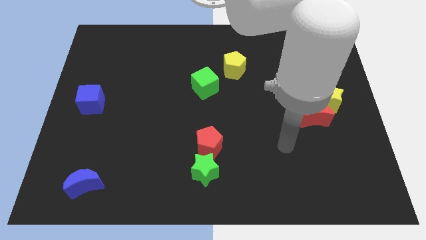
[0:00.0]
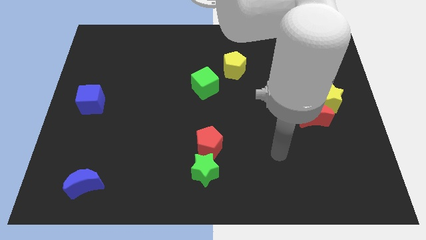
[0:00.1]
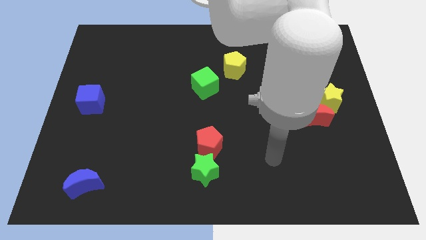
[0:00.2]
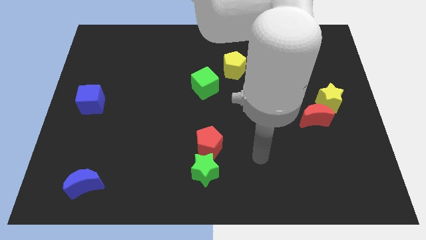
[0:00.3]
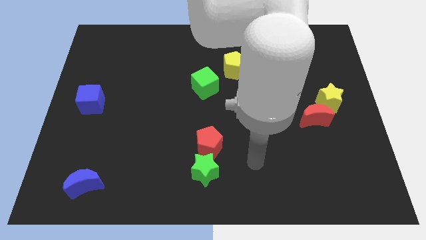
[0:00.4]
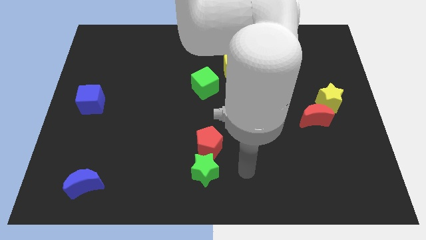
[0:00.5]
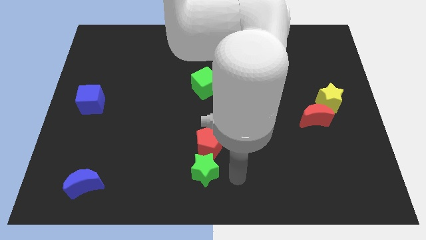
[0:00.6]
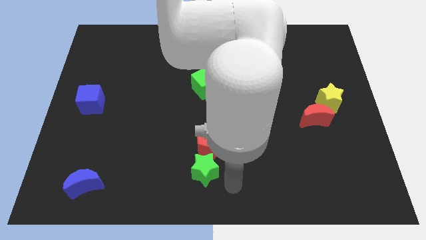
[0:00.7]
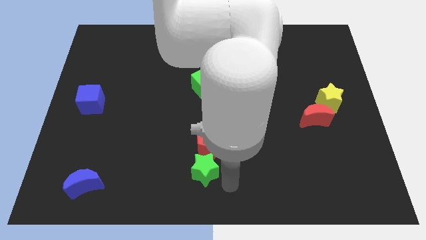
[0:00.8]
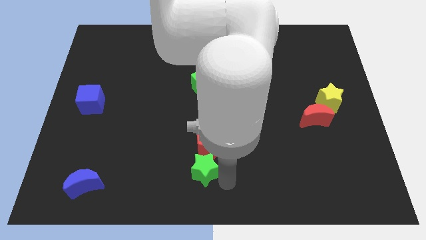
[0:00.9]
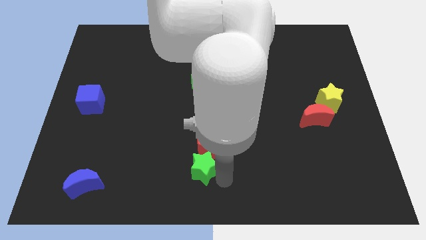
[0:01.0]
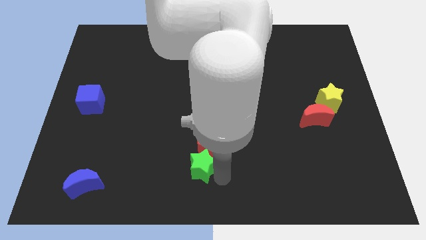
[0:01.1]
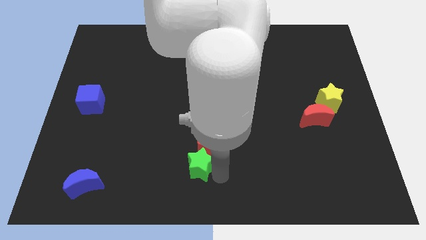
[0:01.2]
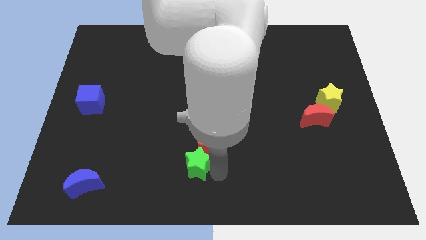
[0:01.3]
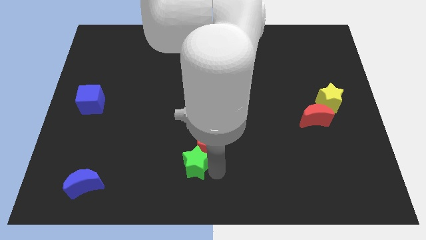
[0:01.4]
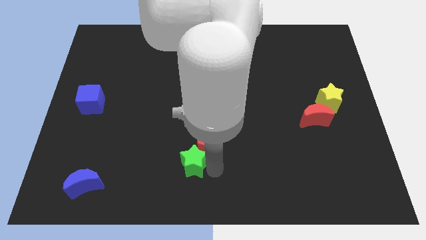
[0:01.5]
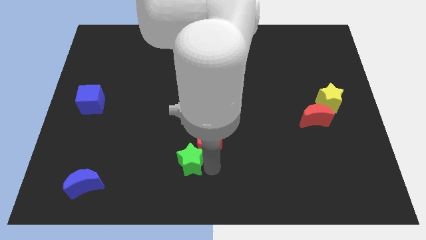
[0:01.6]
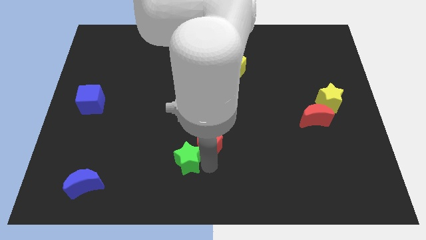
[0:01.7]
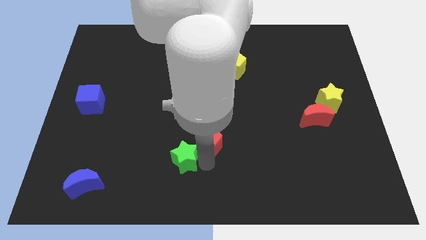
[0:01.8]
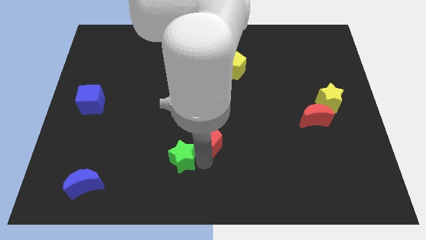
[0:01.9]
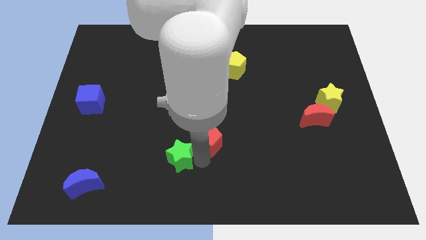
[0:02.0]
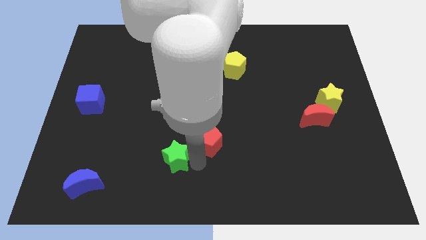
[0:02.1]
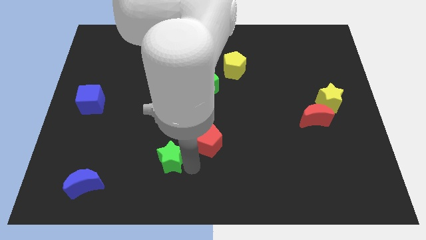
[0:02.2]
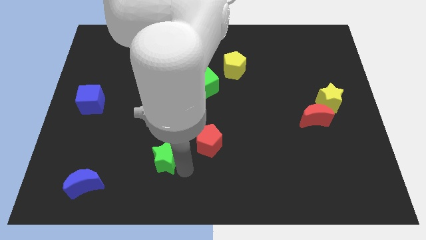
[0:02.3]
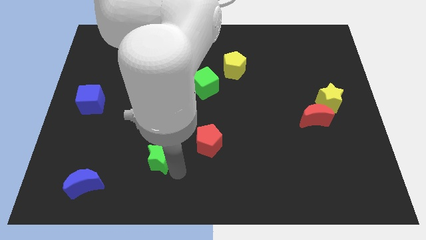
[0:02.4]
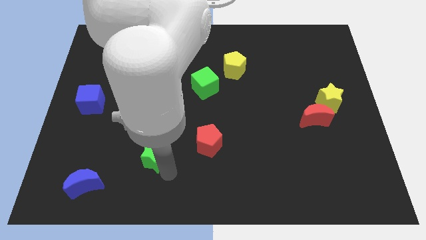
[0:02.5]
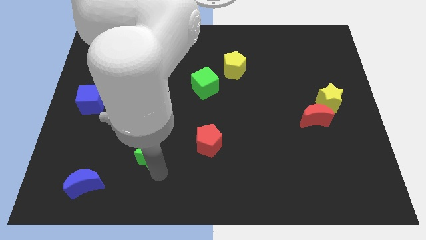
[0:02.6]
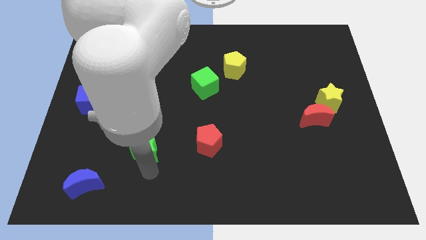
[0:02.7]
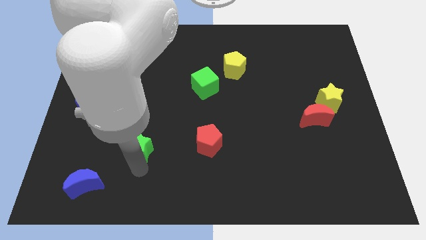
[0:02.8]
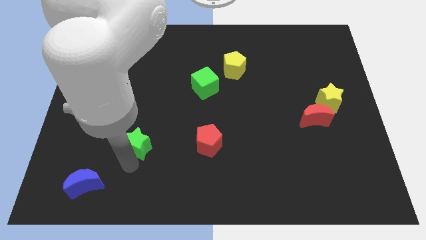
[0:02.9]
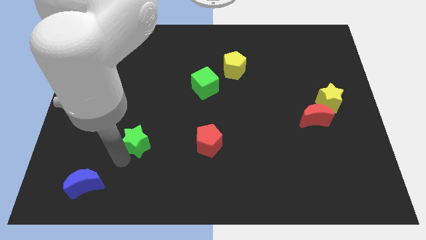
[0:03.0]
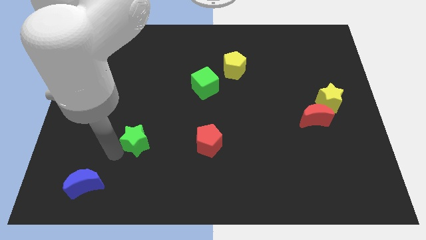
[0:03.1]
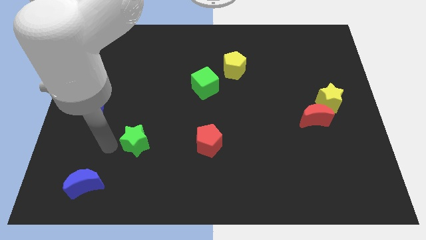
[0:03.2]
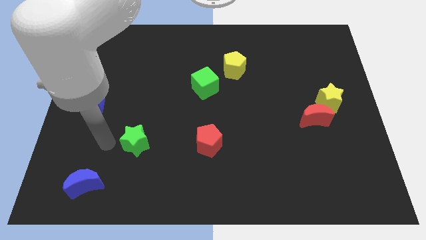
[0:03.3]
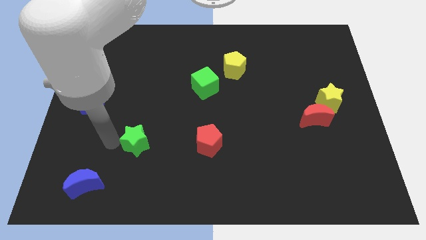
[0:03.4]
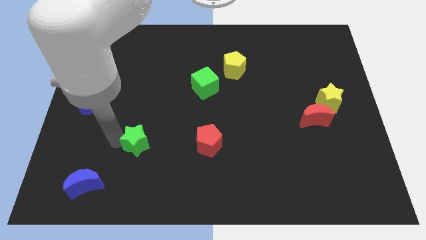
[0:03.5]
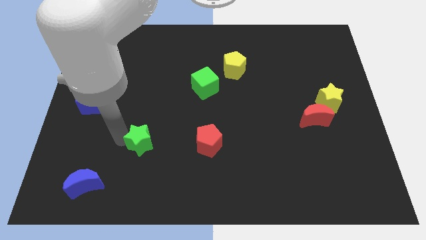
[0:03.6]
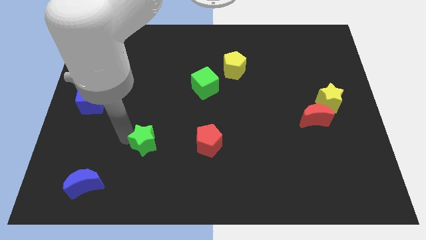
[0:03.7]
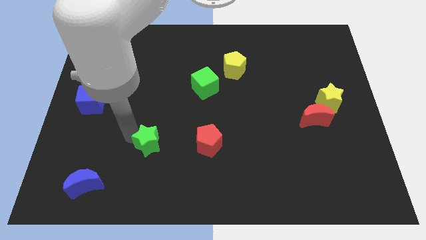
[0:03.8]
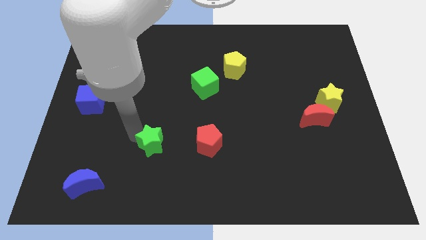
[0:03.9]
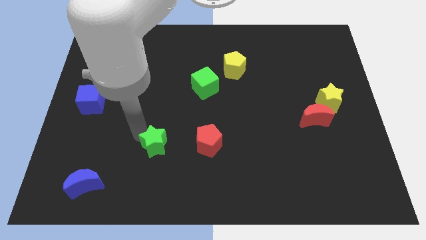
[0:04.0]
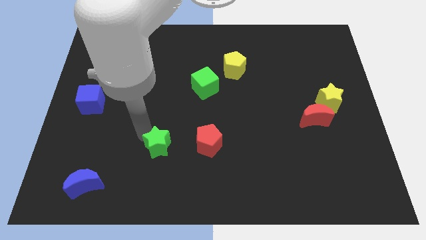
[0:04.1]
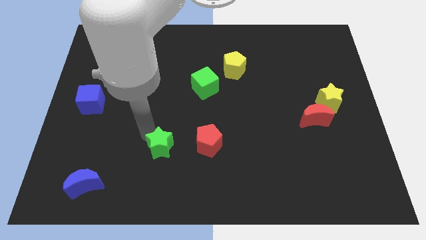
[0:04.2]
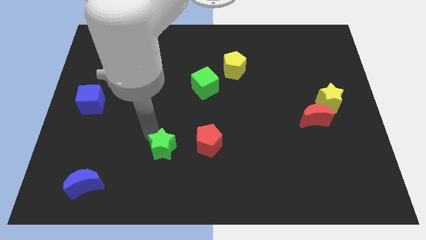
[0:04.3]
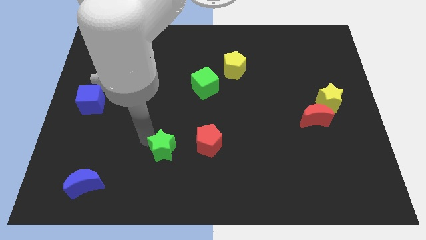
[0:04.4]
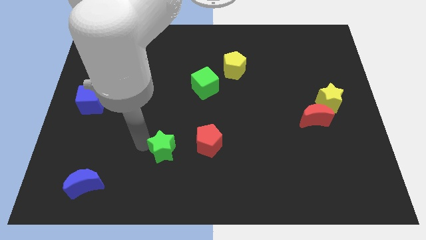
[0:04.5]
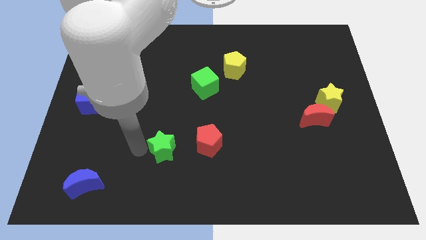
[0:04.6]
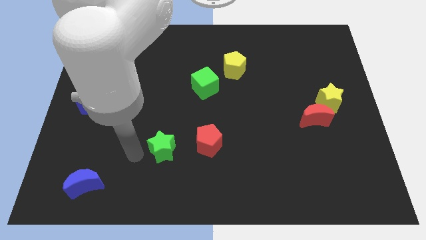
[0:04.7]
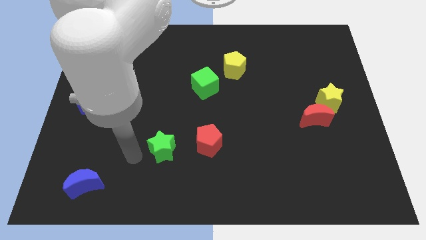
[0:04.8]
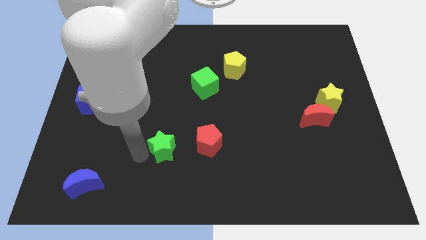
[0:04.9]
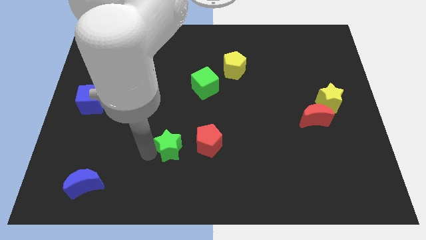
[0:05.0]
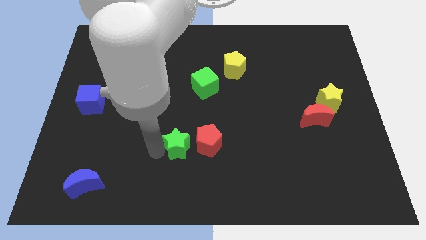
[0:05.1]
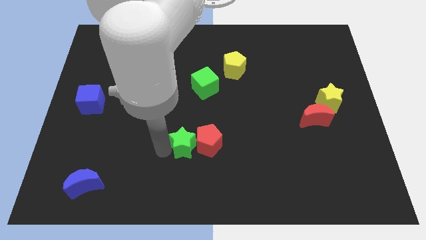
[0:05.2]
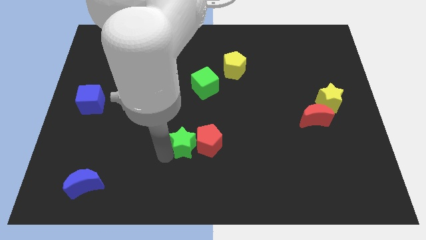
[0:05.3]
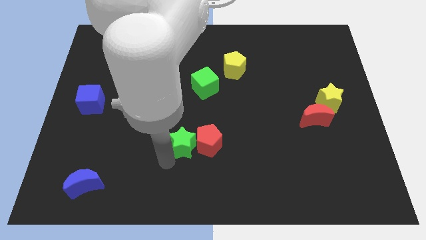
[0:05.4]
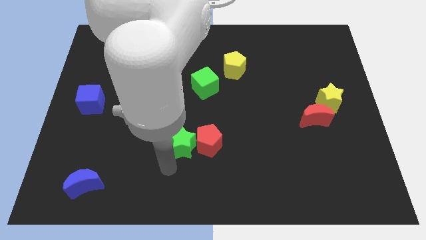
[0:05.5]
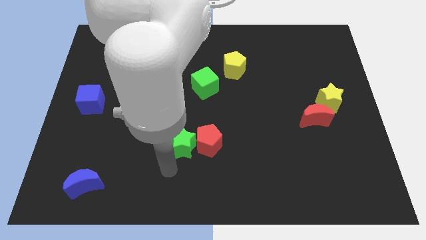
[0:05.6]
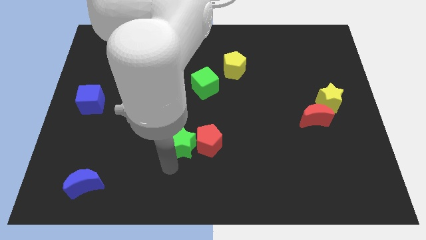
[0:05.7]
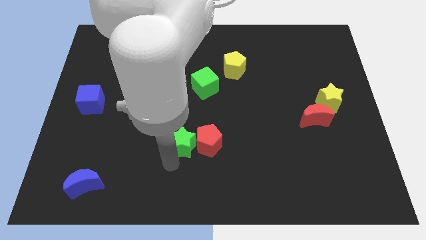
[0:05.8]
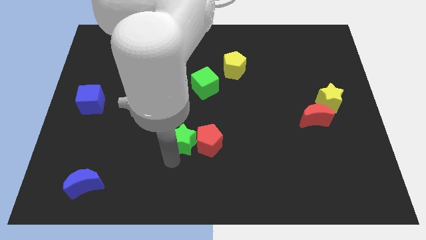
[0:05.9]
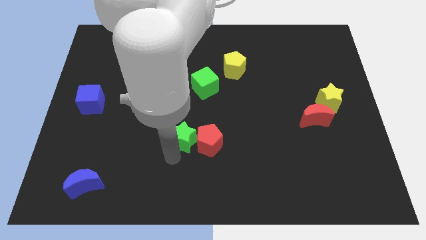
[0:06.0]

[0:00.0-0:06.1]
push the green star upwards somewhat

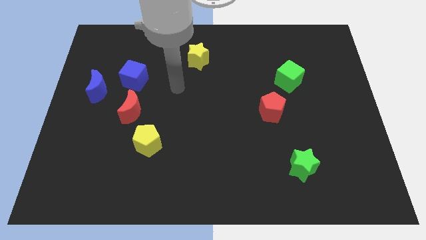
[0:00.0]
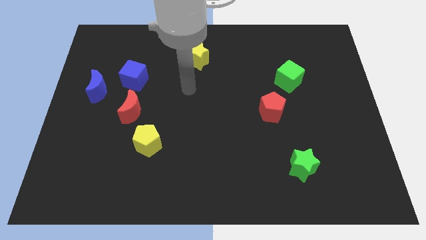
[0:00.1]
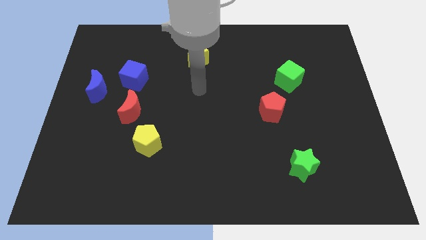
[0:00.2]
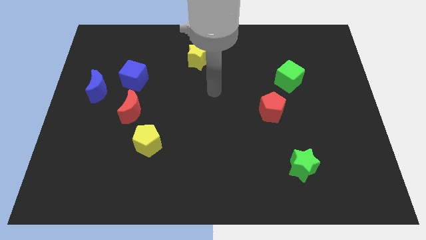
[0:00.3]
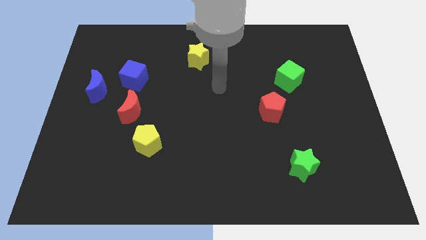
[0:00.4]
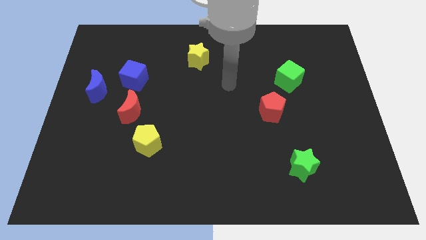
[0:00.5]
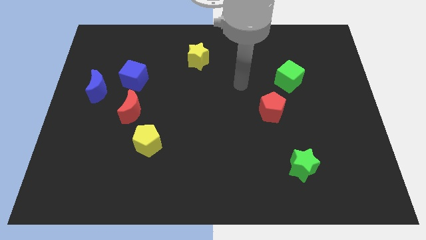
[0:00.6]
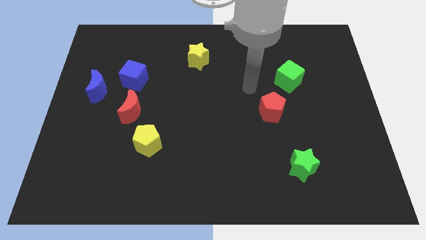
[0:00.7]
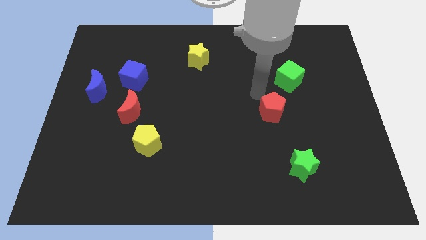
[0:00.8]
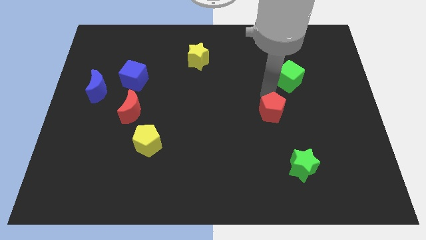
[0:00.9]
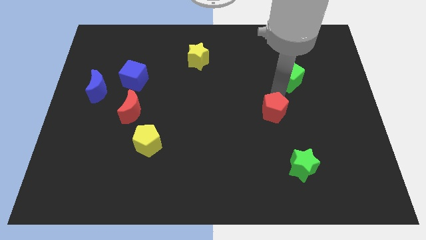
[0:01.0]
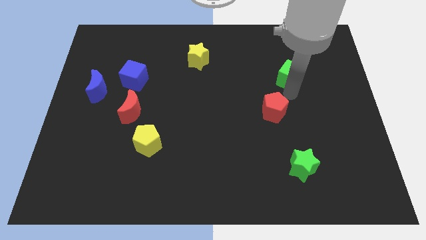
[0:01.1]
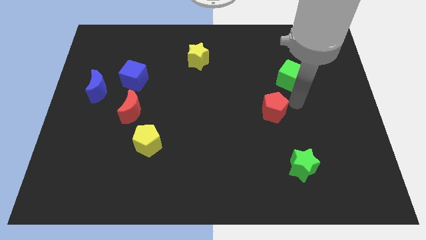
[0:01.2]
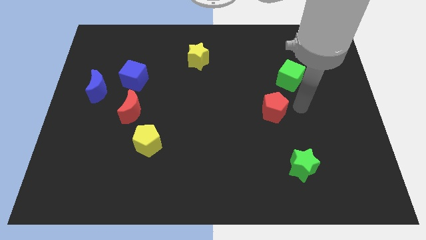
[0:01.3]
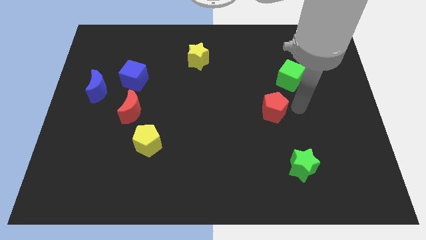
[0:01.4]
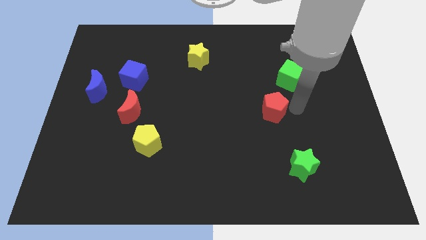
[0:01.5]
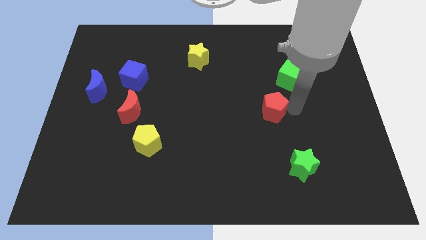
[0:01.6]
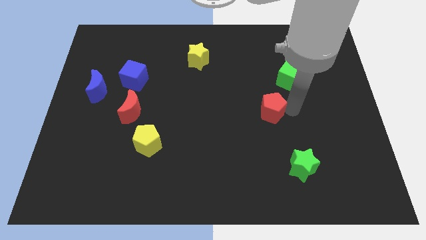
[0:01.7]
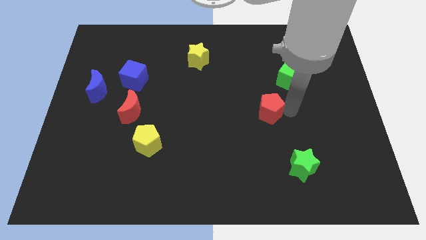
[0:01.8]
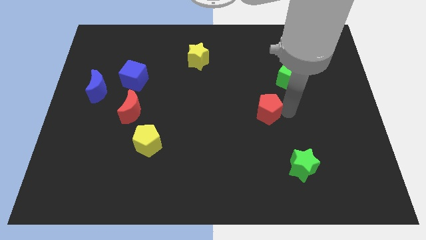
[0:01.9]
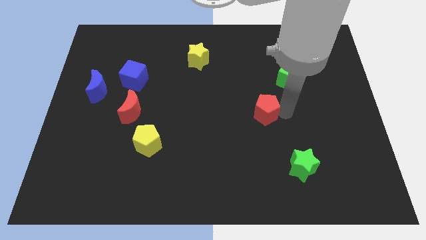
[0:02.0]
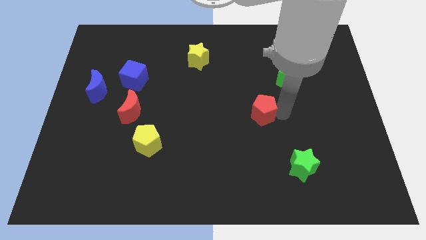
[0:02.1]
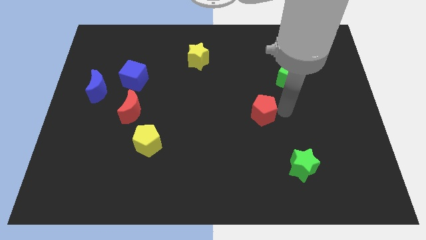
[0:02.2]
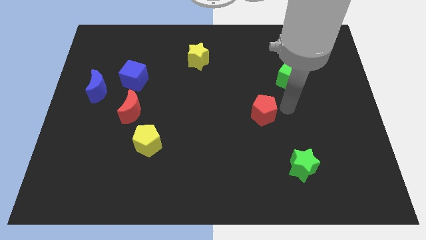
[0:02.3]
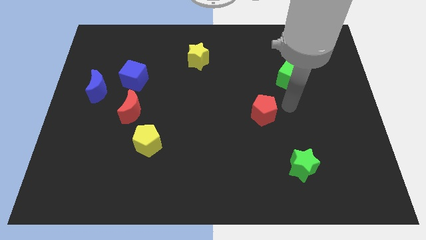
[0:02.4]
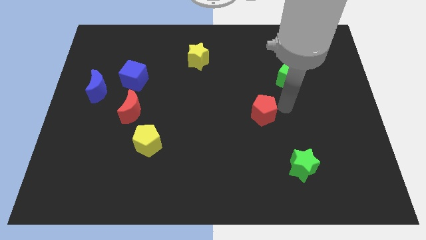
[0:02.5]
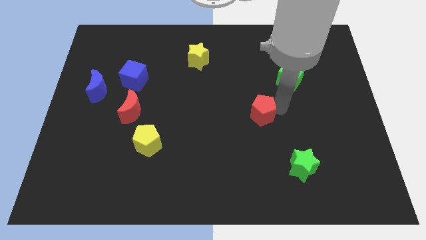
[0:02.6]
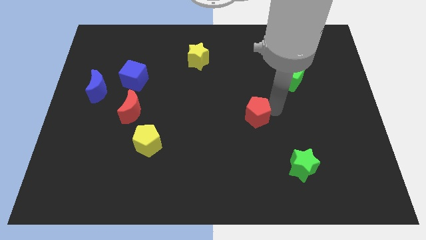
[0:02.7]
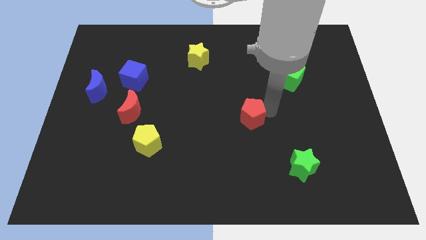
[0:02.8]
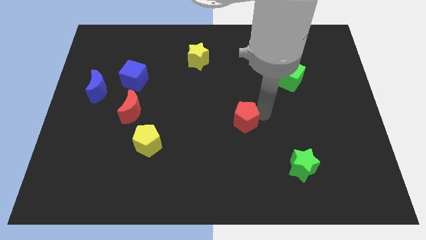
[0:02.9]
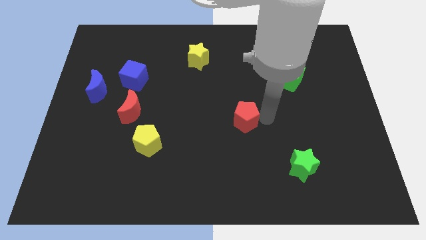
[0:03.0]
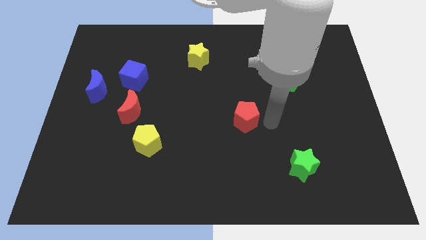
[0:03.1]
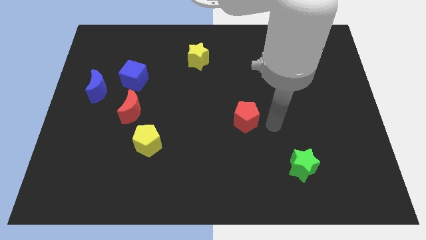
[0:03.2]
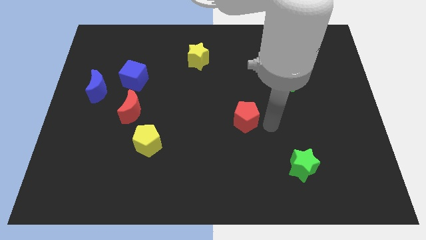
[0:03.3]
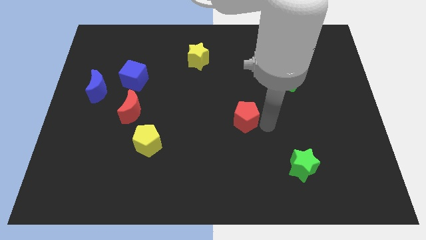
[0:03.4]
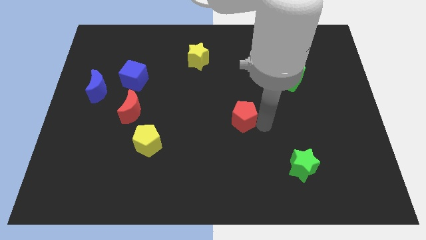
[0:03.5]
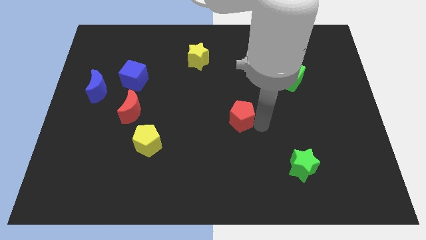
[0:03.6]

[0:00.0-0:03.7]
push the red pentagon to the left a bit
